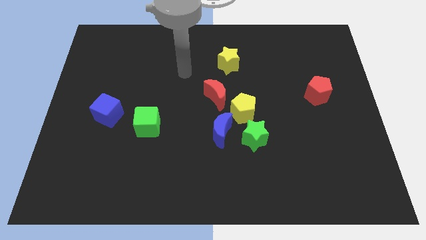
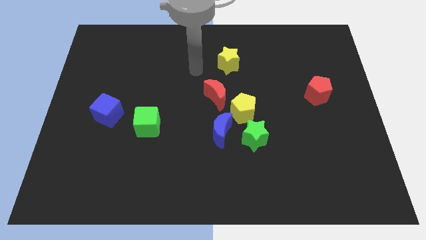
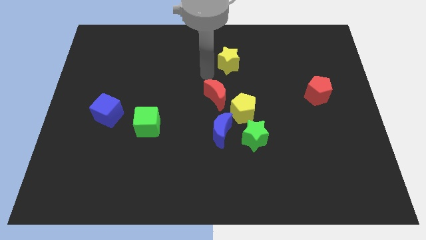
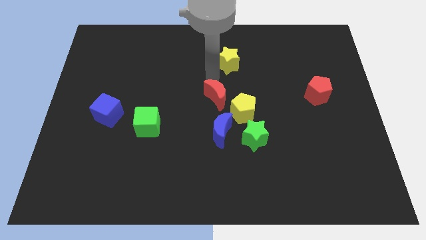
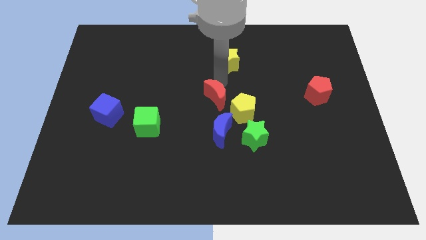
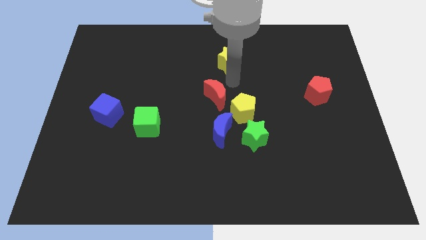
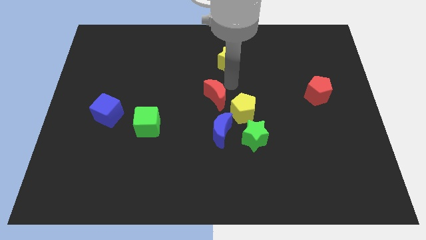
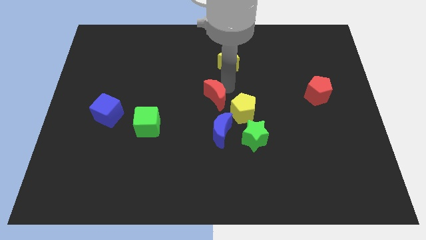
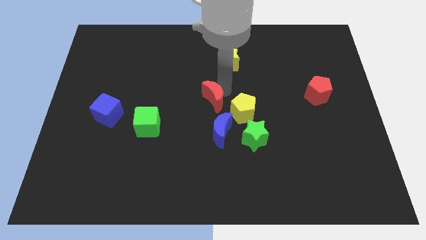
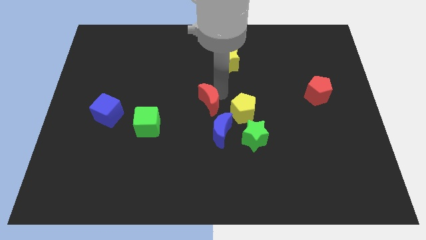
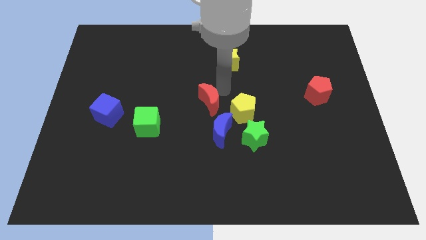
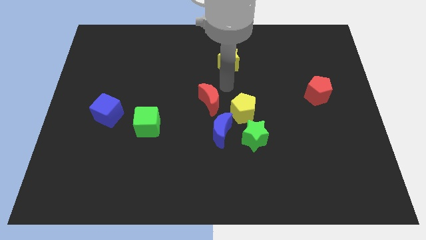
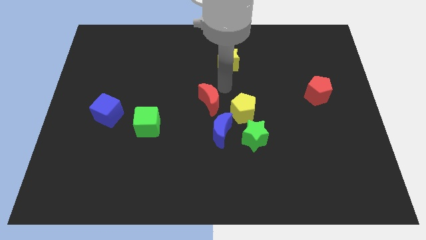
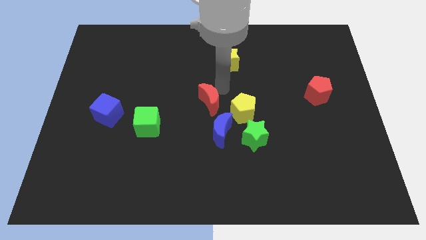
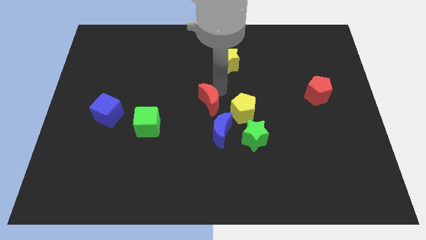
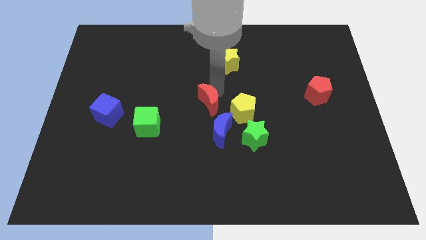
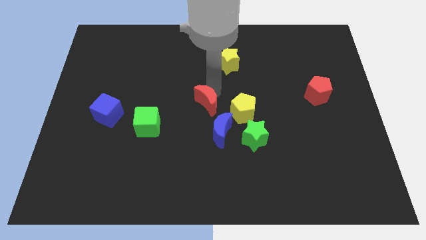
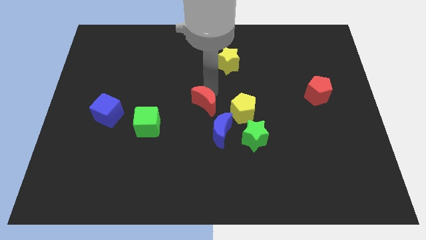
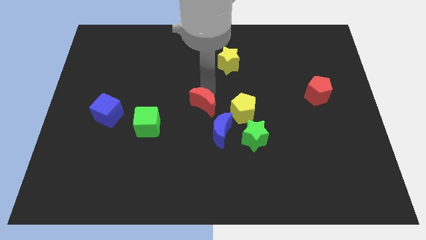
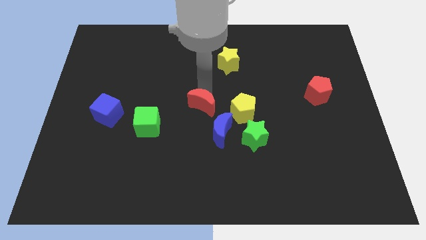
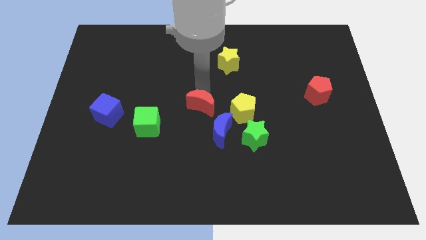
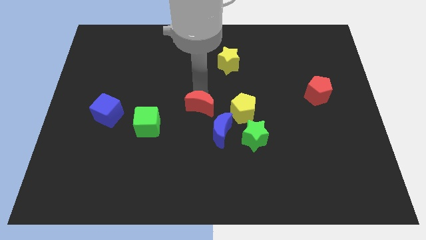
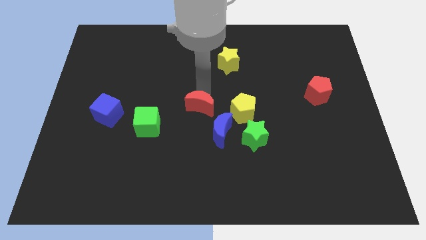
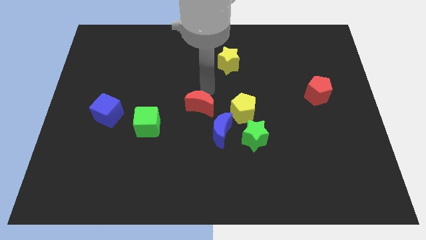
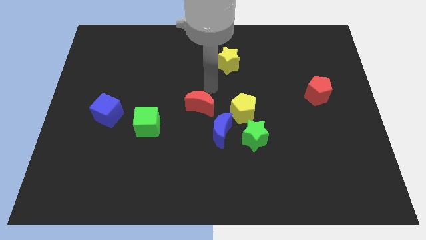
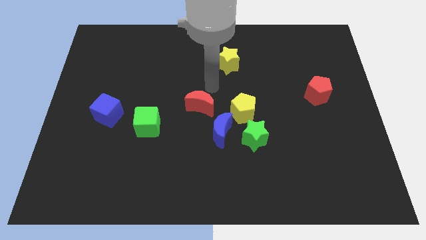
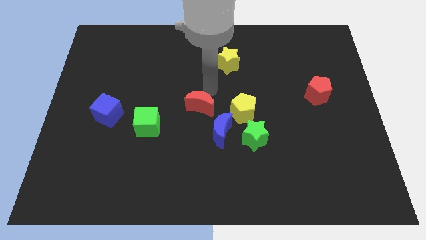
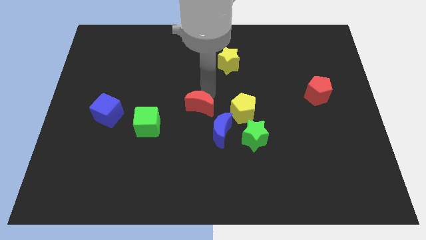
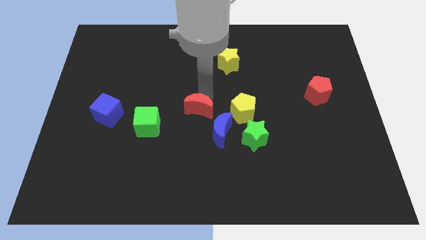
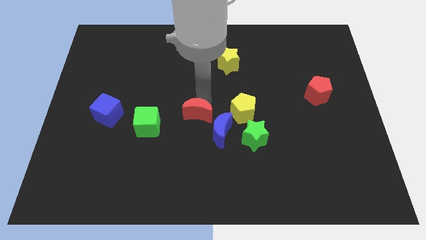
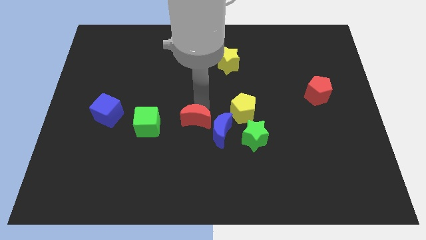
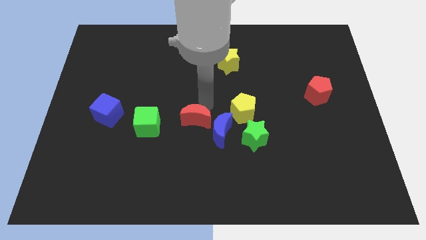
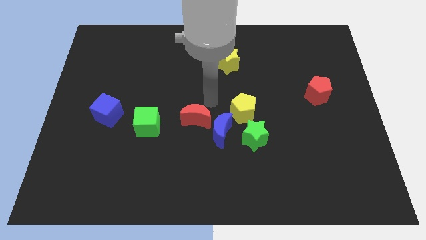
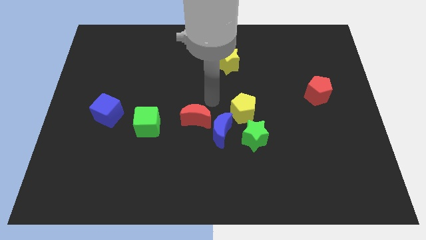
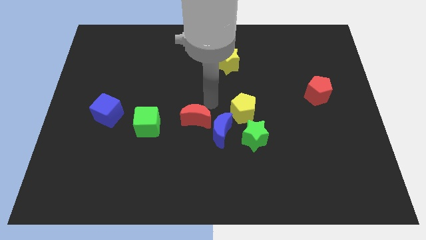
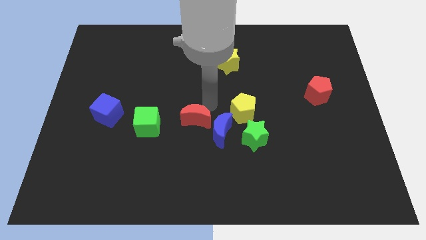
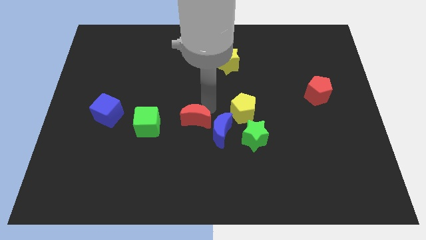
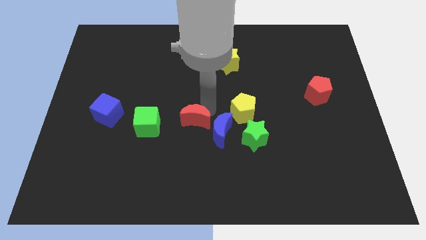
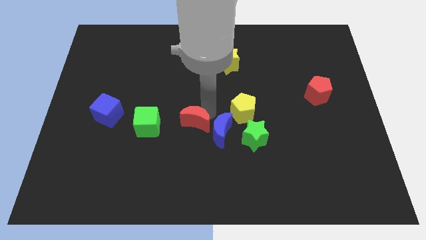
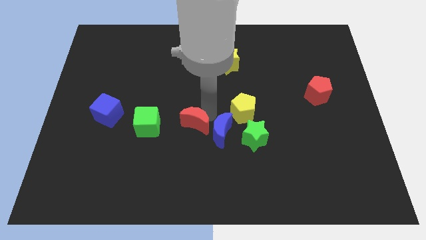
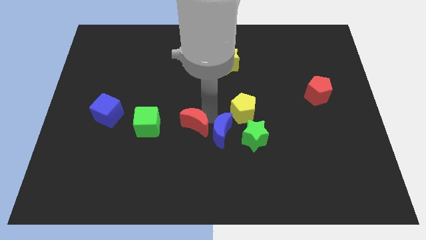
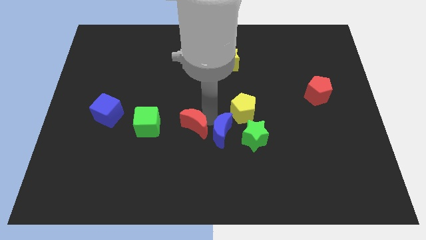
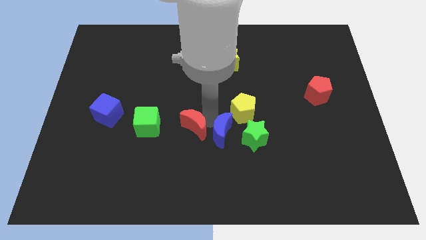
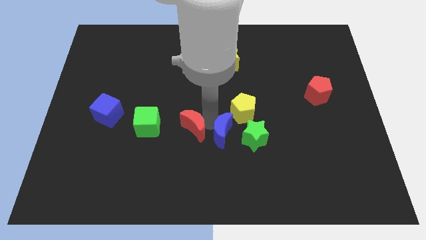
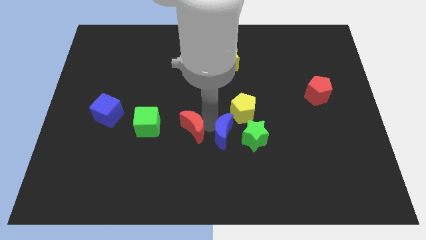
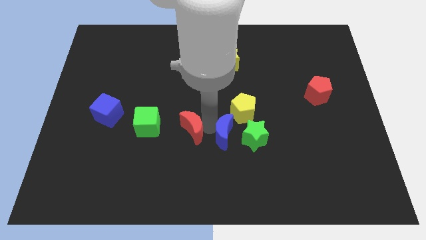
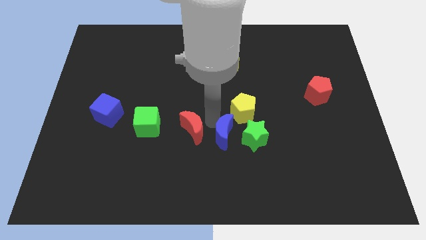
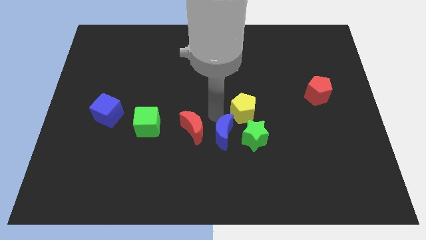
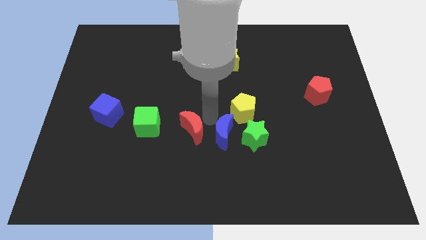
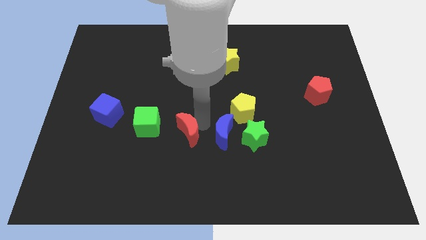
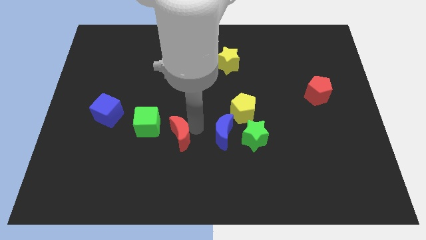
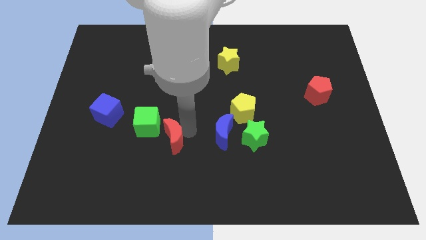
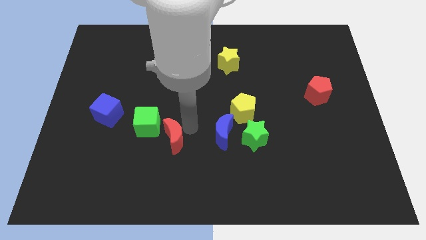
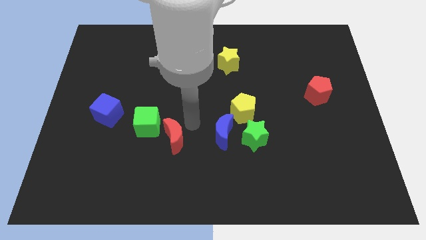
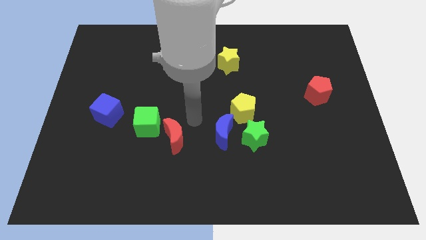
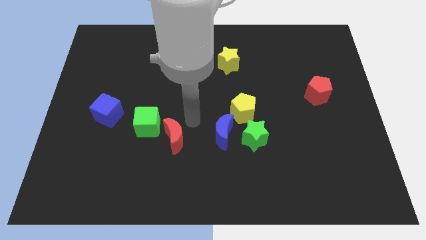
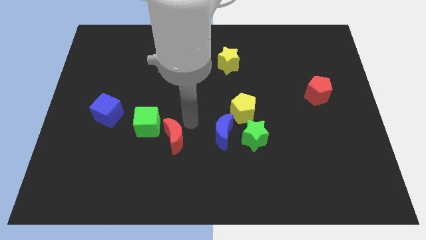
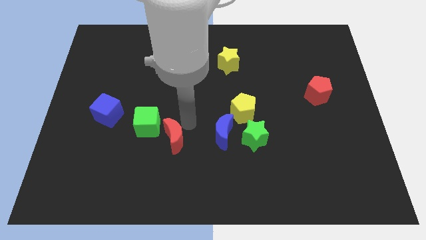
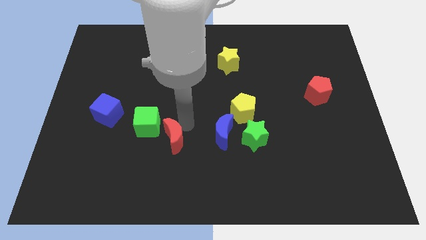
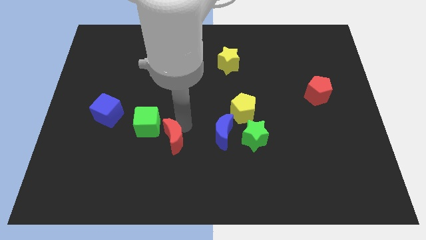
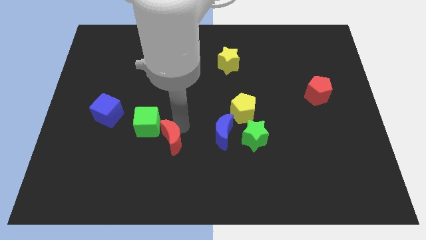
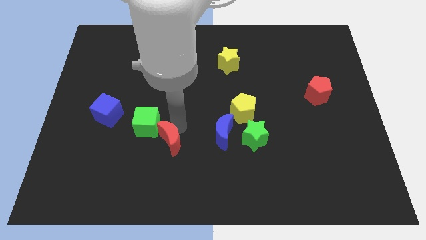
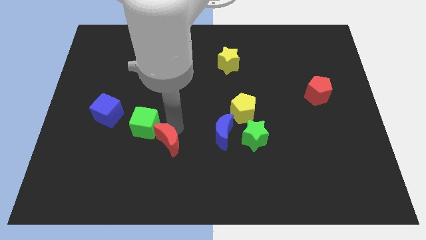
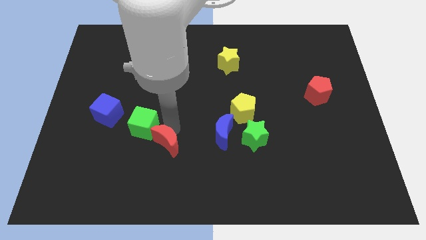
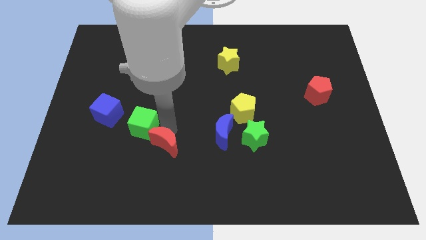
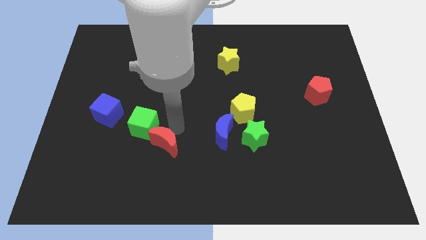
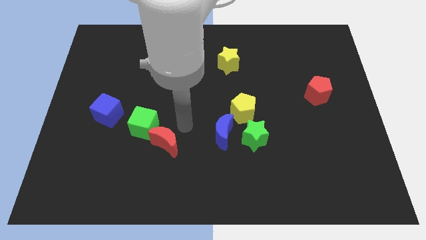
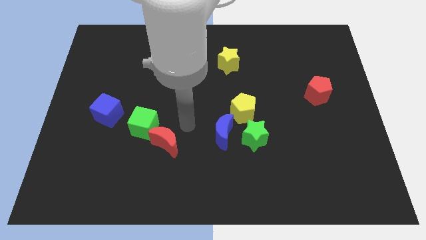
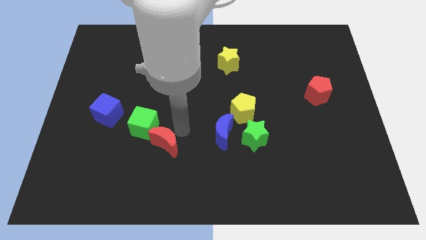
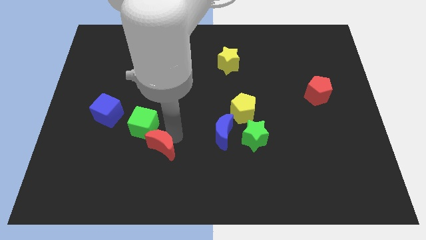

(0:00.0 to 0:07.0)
slide the red moon to the bottom side of the green cube

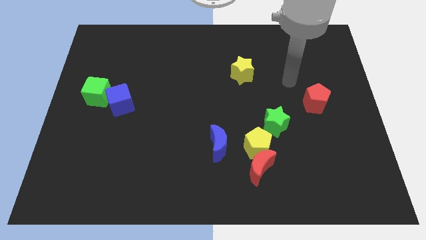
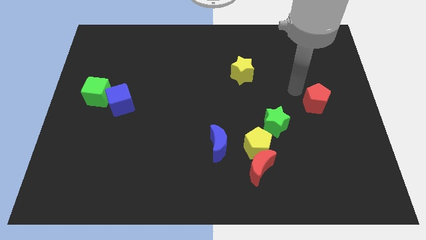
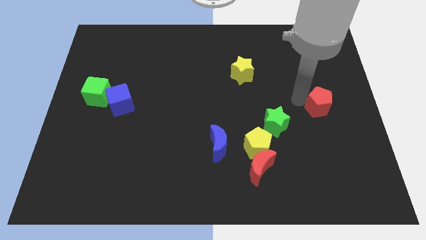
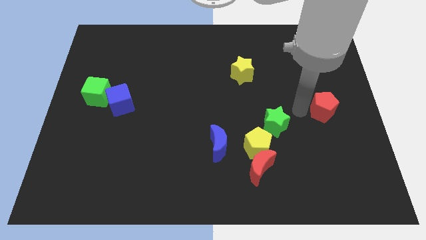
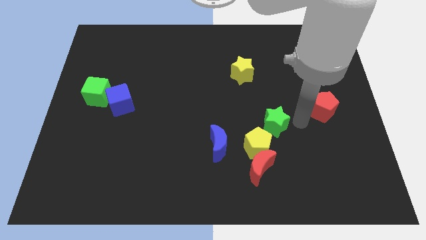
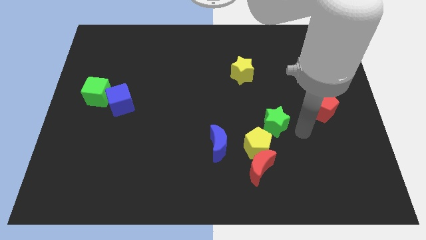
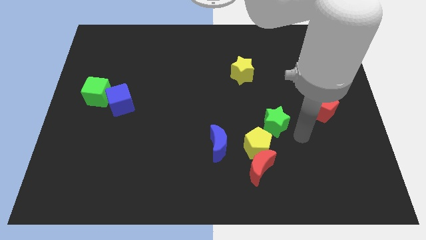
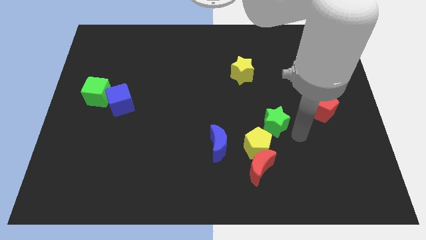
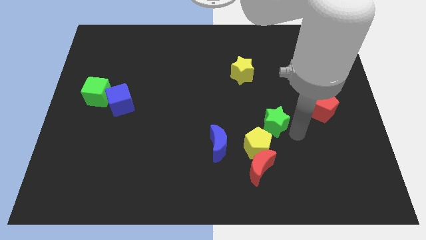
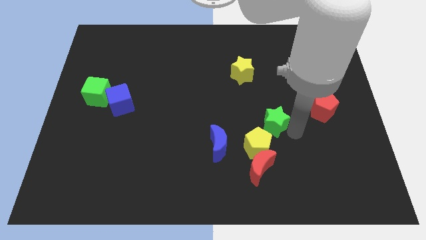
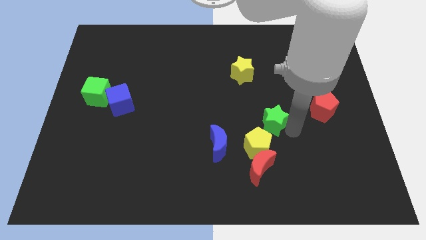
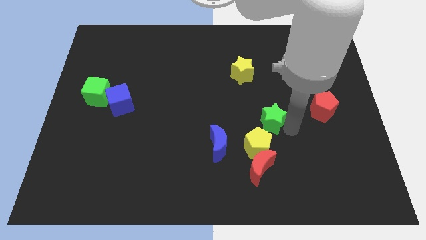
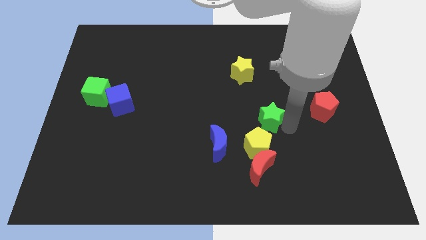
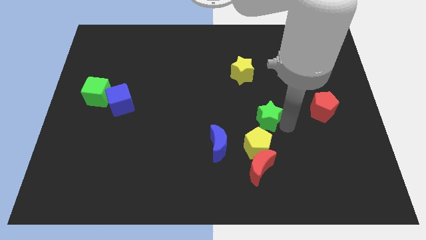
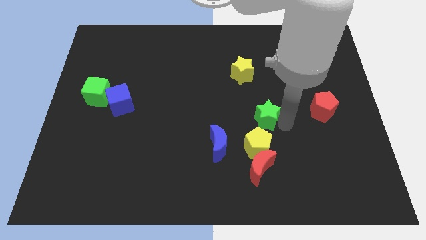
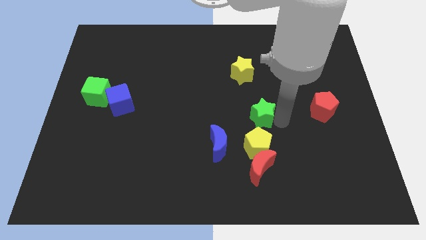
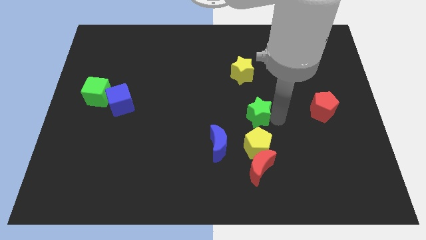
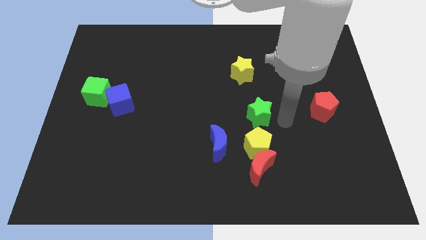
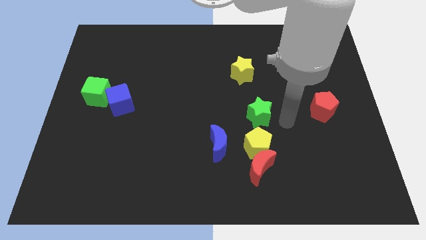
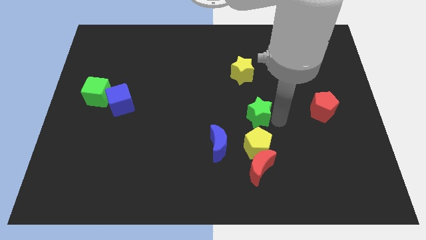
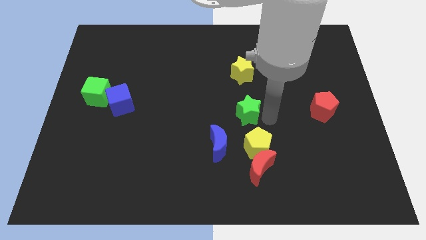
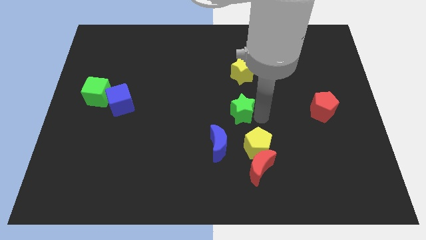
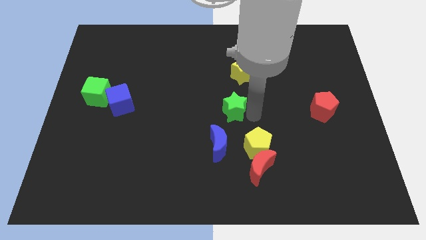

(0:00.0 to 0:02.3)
move the green star to the top of the blue moon
